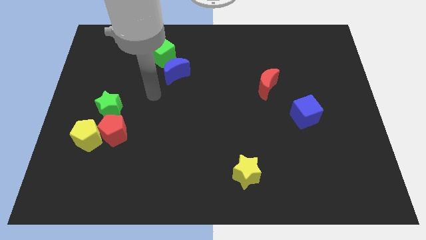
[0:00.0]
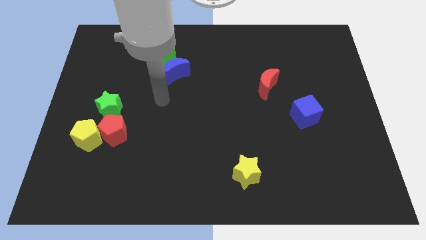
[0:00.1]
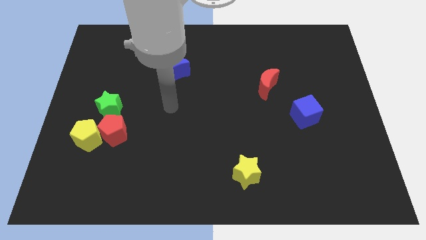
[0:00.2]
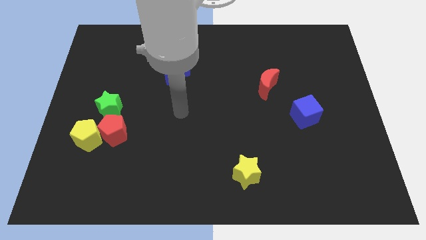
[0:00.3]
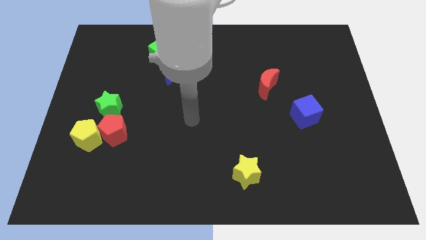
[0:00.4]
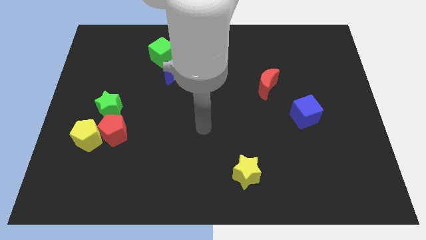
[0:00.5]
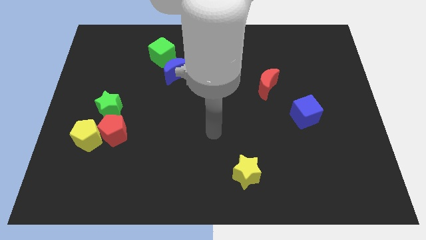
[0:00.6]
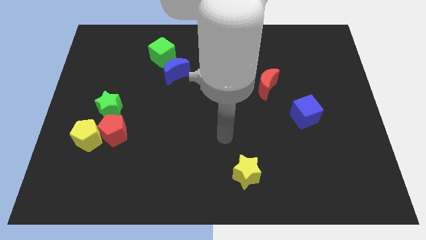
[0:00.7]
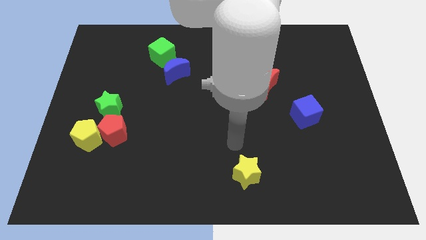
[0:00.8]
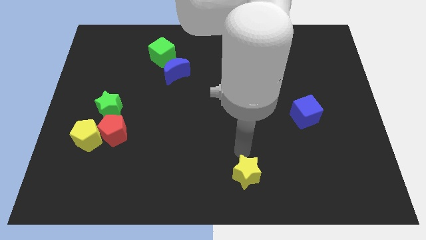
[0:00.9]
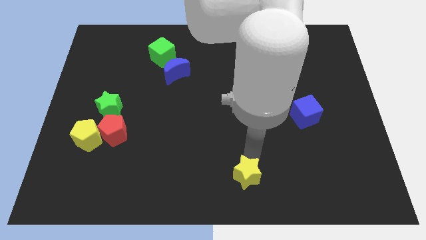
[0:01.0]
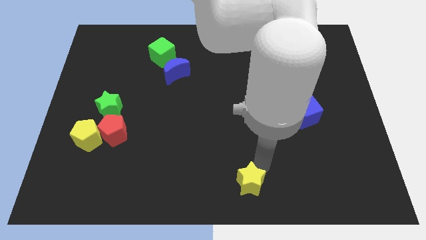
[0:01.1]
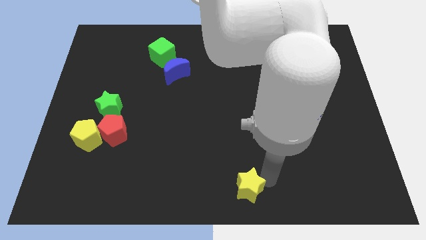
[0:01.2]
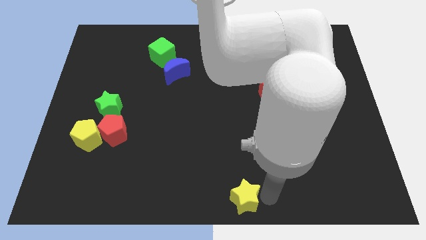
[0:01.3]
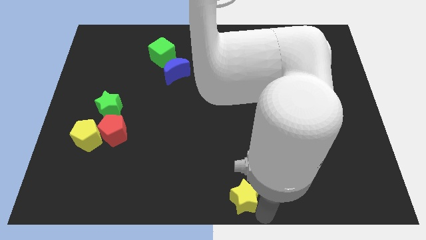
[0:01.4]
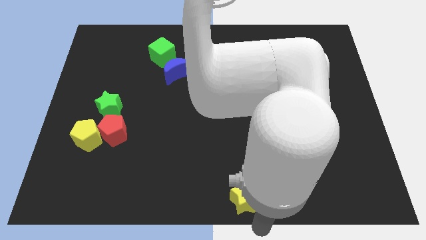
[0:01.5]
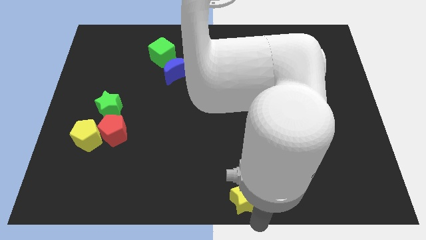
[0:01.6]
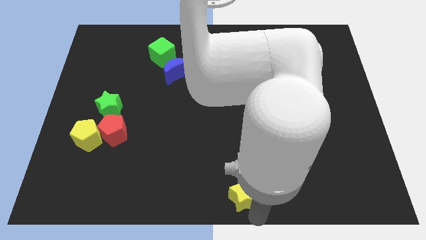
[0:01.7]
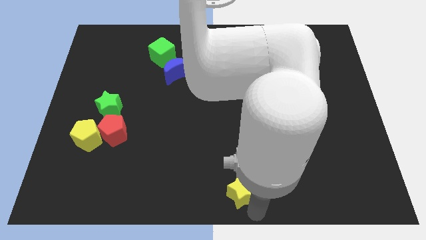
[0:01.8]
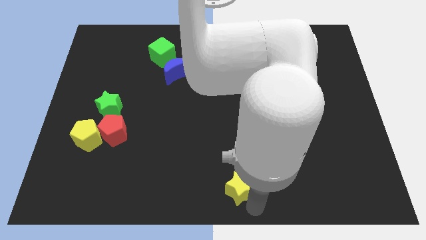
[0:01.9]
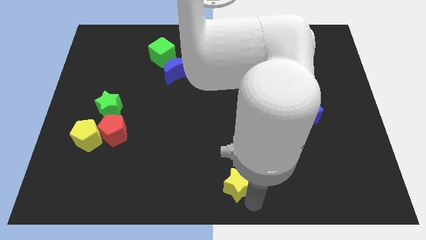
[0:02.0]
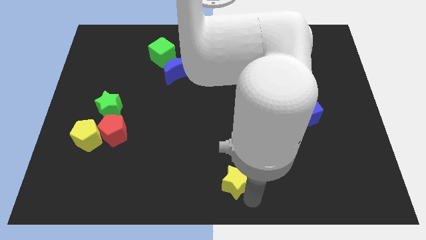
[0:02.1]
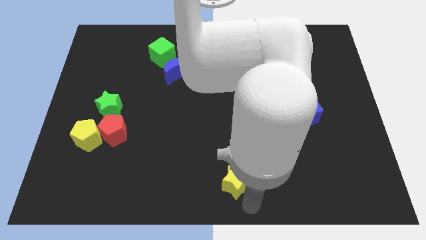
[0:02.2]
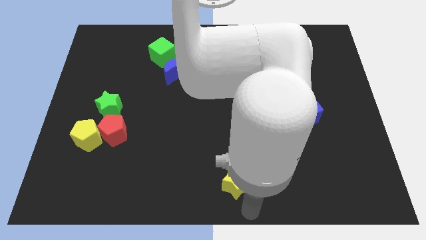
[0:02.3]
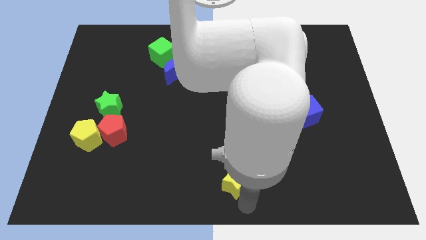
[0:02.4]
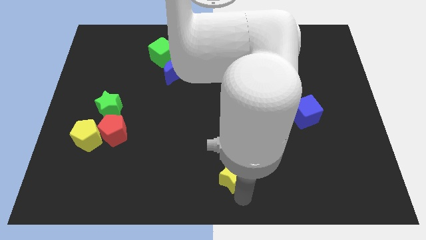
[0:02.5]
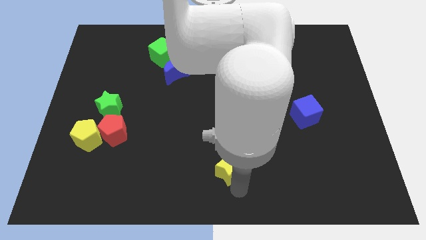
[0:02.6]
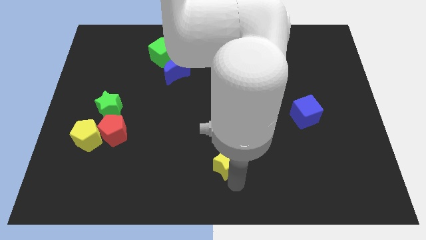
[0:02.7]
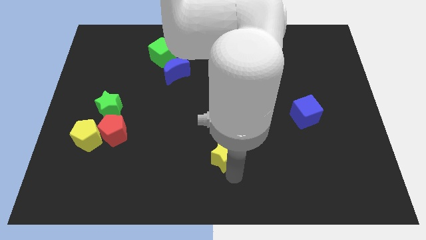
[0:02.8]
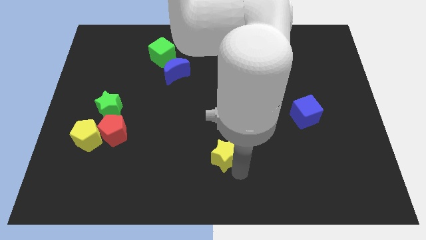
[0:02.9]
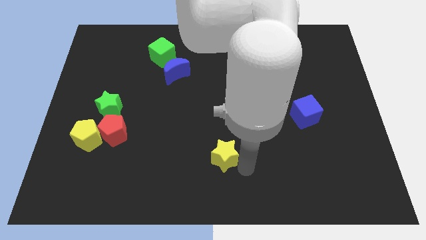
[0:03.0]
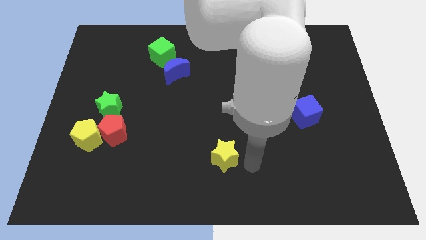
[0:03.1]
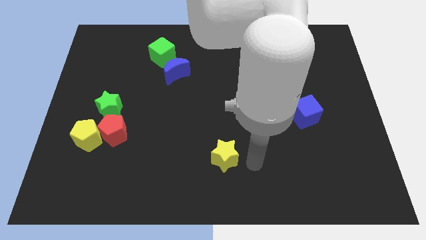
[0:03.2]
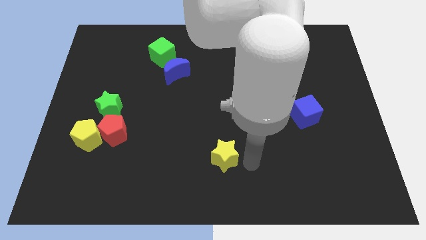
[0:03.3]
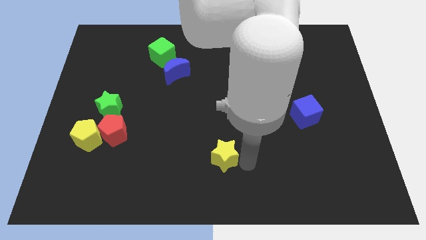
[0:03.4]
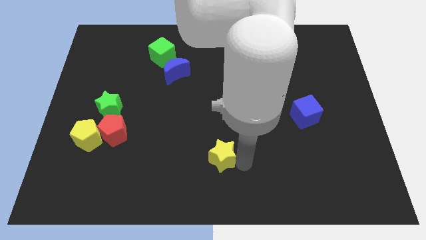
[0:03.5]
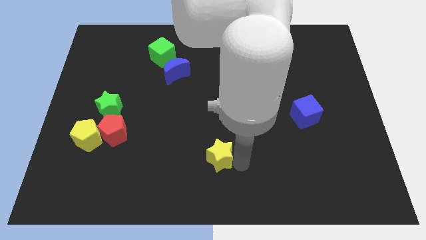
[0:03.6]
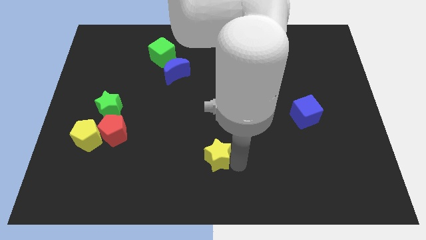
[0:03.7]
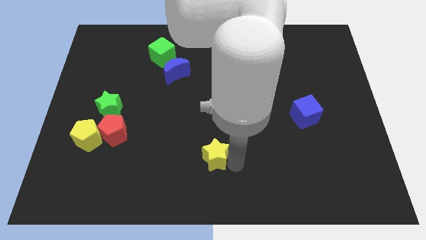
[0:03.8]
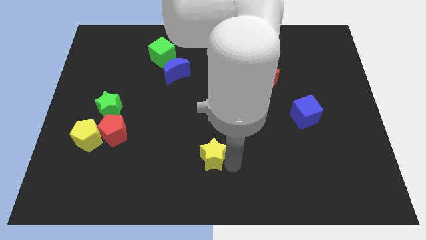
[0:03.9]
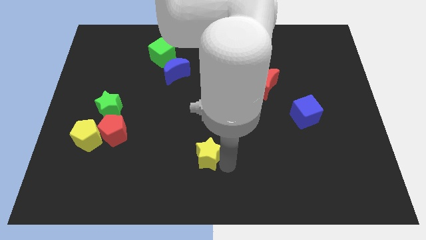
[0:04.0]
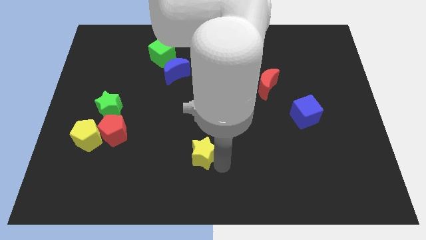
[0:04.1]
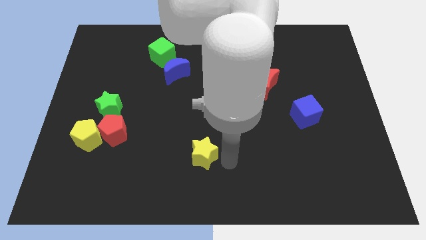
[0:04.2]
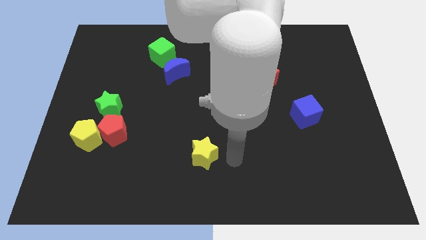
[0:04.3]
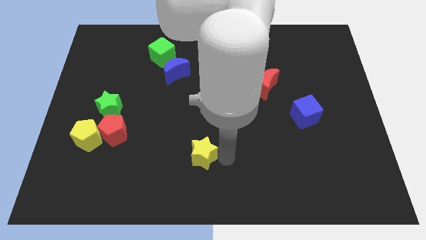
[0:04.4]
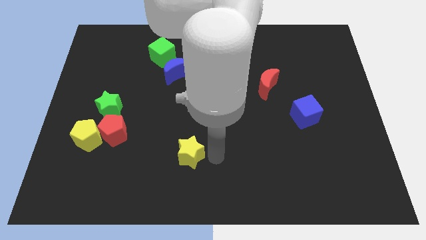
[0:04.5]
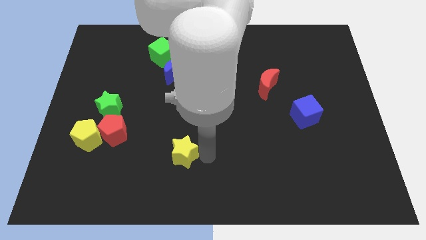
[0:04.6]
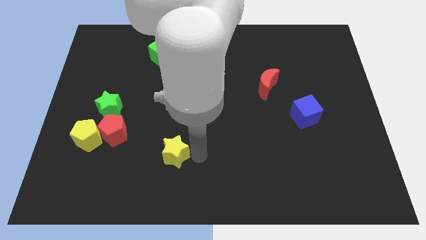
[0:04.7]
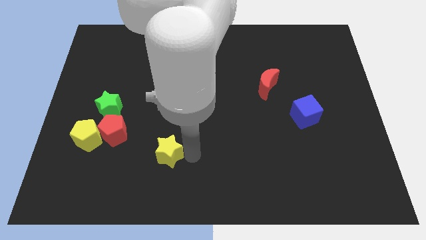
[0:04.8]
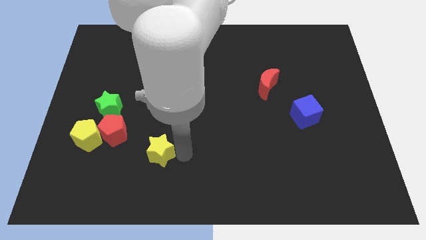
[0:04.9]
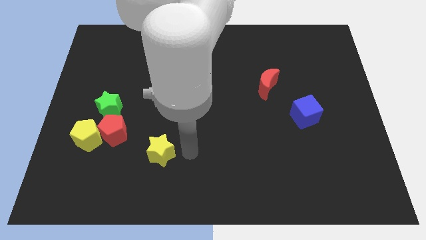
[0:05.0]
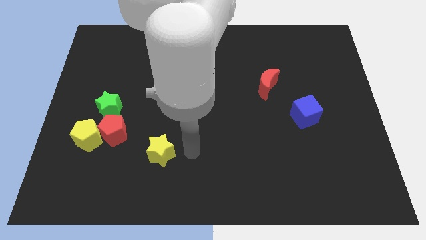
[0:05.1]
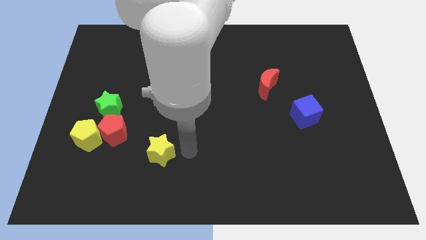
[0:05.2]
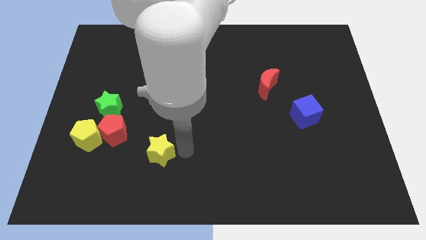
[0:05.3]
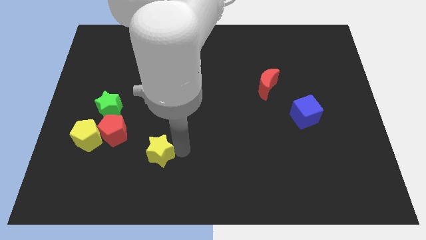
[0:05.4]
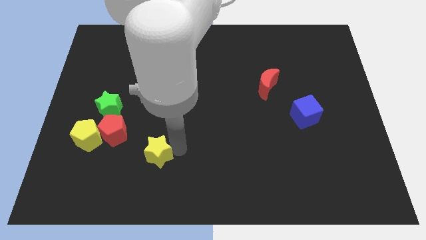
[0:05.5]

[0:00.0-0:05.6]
move the yellow star to the bottom right side of the red pentagon

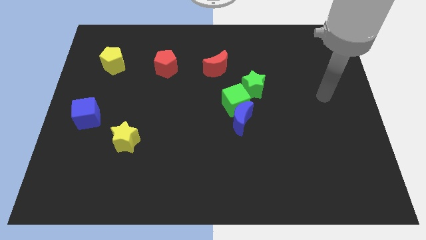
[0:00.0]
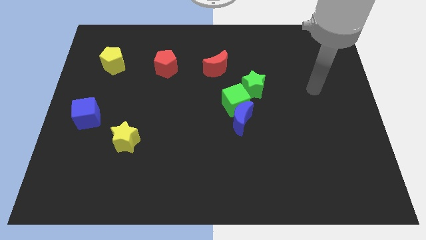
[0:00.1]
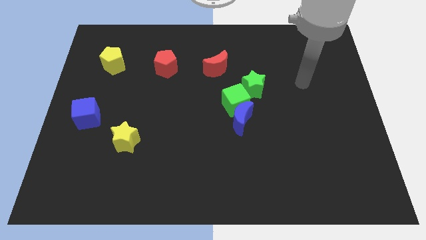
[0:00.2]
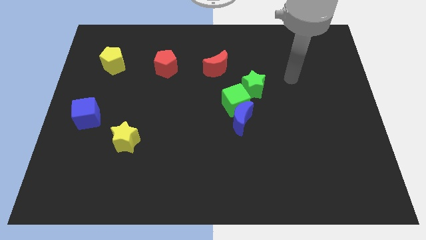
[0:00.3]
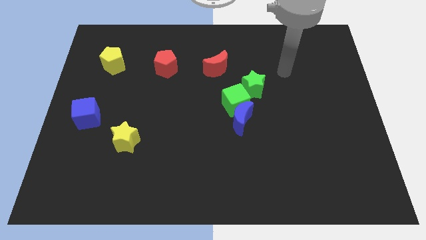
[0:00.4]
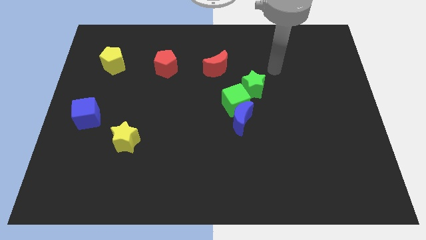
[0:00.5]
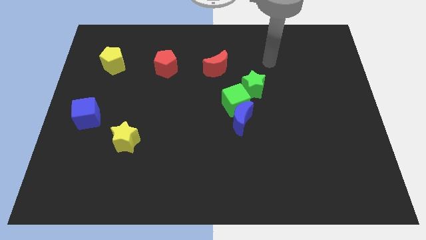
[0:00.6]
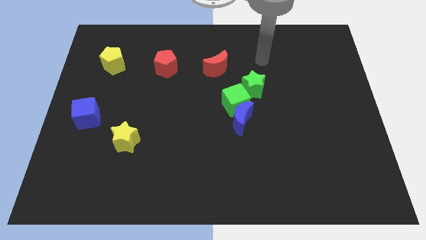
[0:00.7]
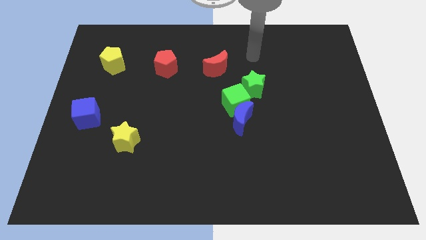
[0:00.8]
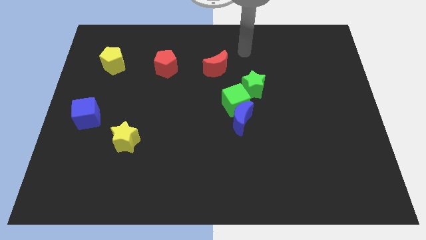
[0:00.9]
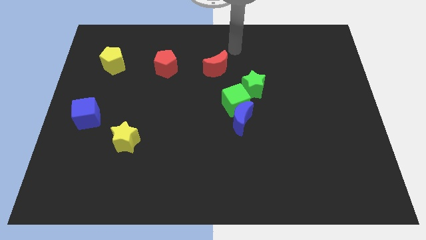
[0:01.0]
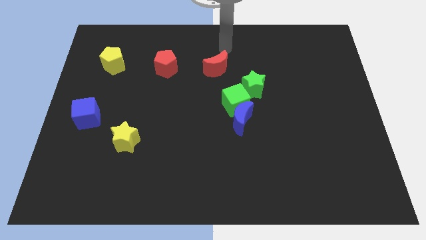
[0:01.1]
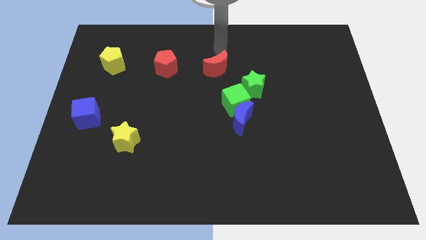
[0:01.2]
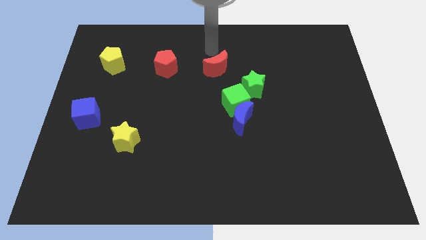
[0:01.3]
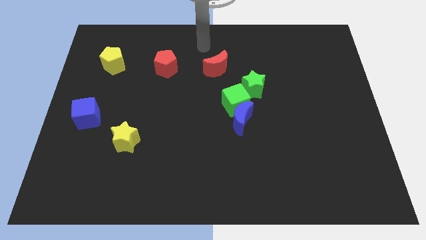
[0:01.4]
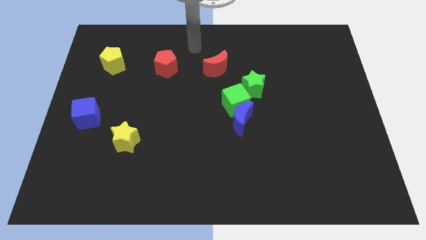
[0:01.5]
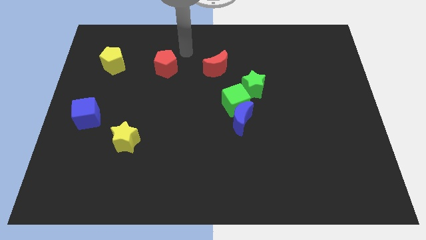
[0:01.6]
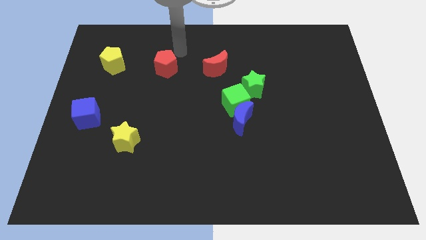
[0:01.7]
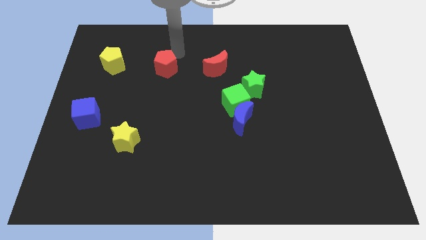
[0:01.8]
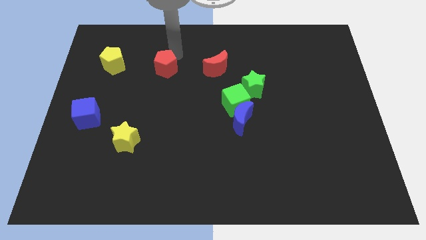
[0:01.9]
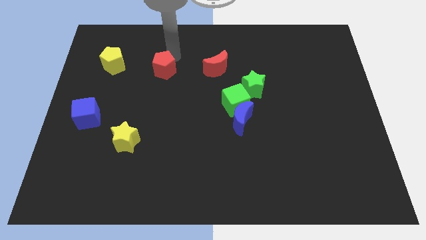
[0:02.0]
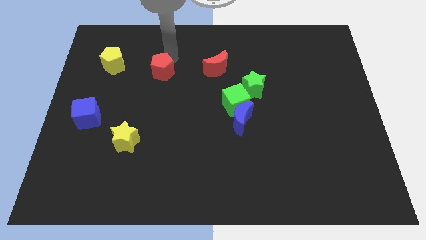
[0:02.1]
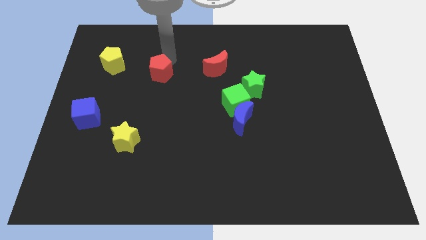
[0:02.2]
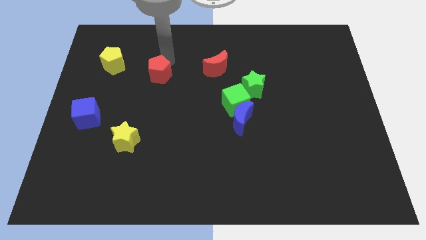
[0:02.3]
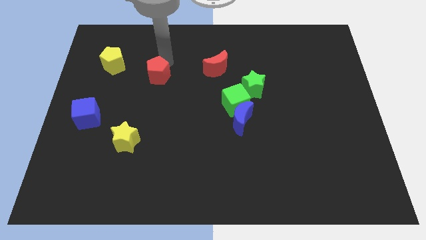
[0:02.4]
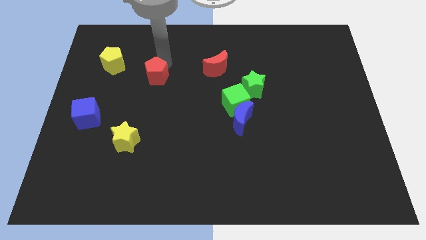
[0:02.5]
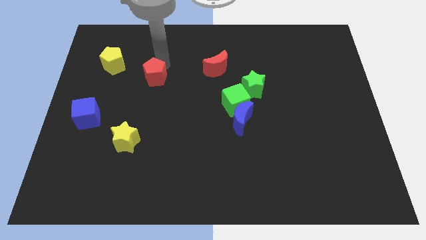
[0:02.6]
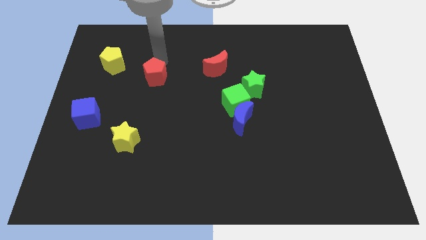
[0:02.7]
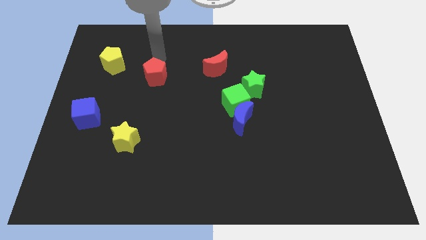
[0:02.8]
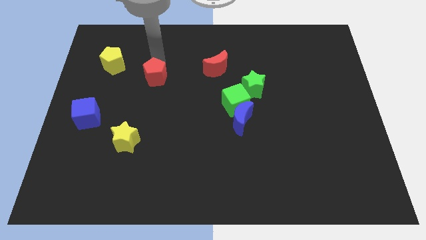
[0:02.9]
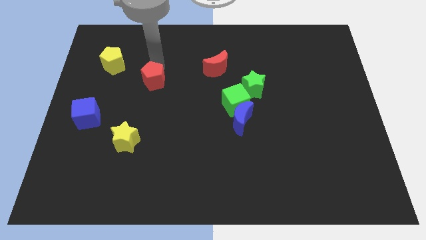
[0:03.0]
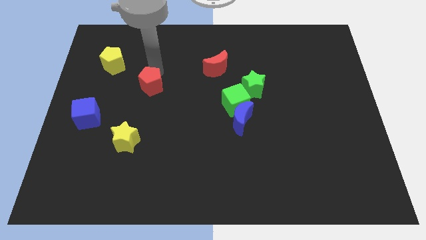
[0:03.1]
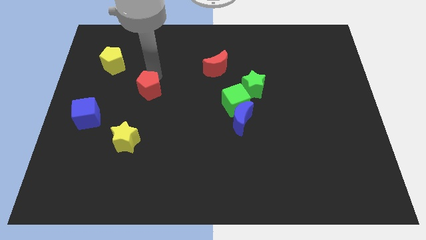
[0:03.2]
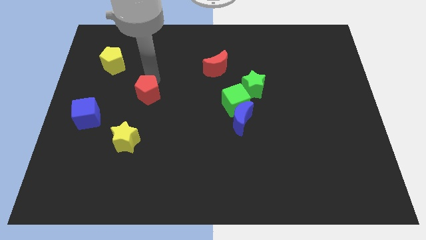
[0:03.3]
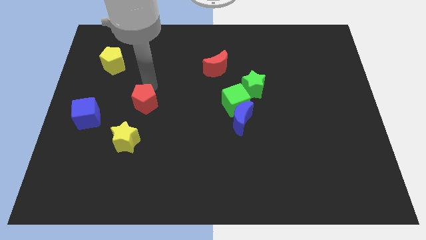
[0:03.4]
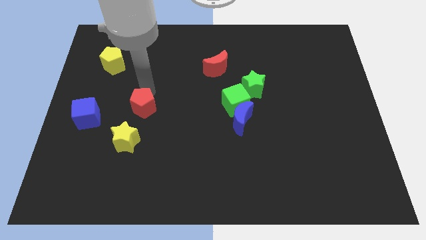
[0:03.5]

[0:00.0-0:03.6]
put the red pentagon to the top right side of the yellow star
